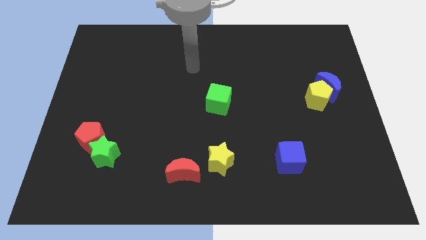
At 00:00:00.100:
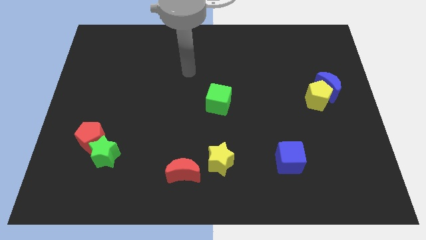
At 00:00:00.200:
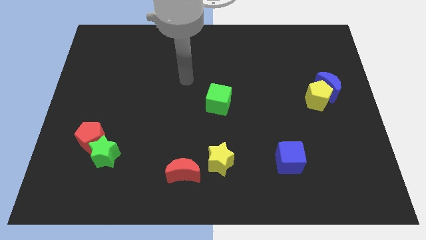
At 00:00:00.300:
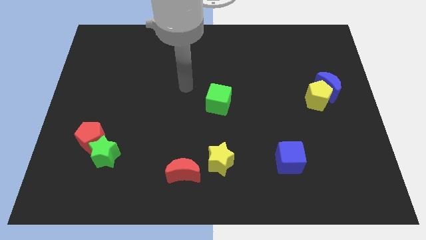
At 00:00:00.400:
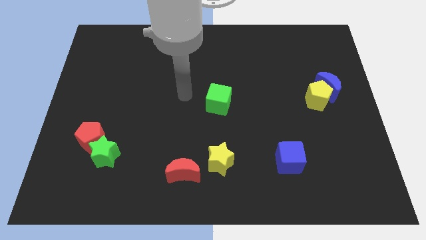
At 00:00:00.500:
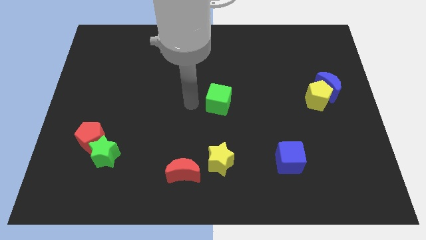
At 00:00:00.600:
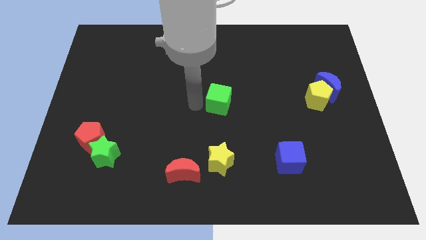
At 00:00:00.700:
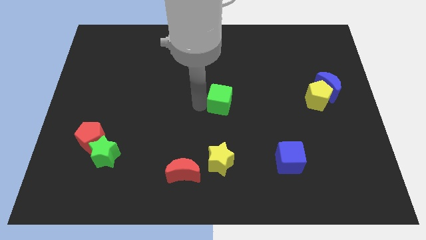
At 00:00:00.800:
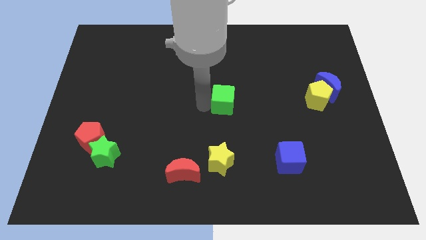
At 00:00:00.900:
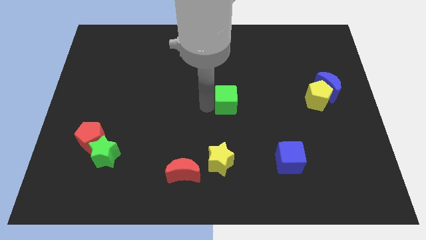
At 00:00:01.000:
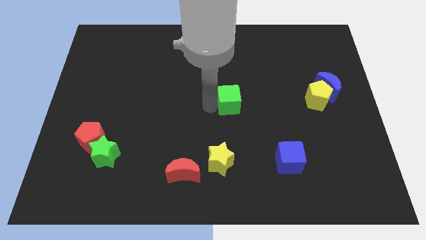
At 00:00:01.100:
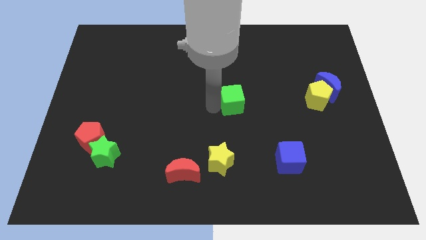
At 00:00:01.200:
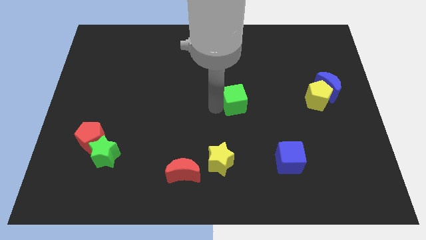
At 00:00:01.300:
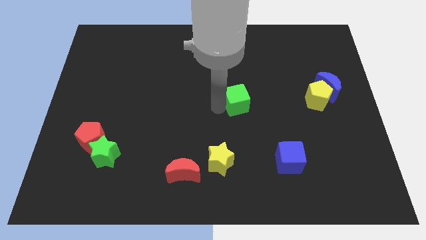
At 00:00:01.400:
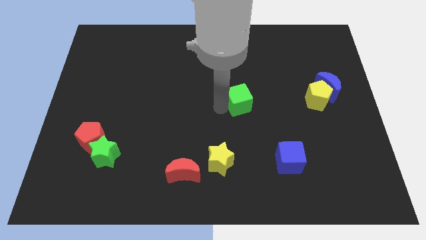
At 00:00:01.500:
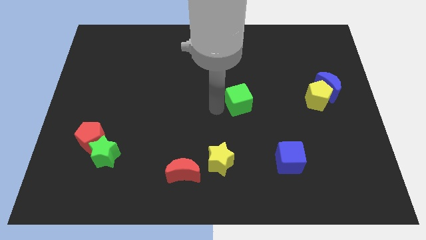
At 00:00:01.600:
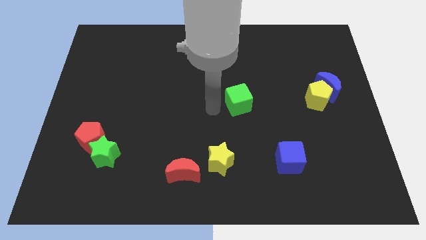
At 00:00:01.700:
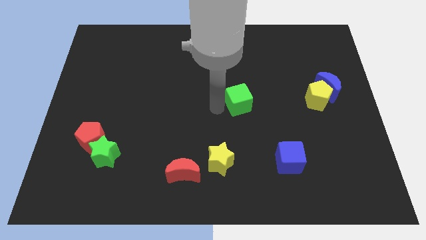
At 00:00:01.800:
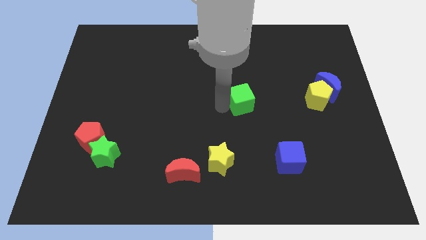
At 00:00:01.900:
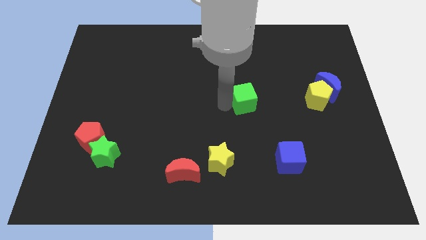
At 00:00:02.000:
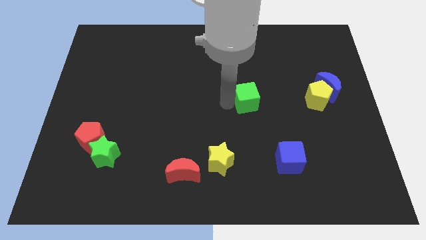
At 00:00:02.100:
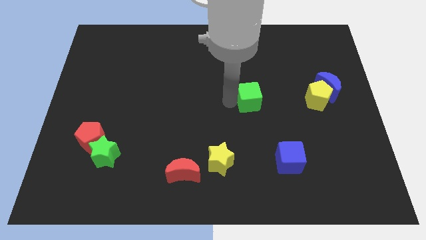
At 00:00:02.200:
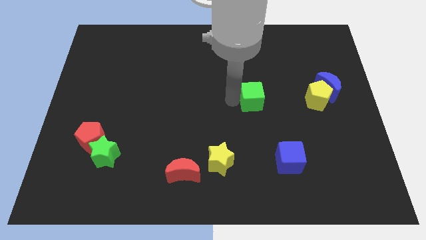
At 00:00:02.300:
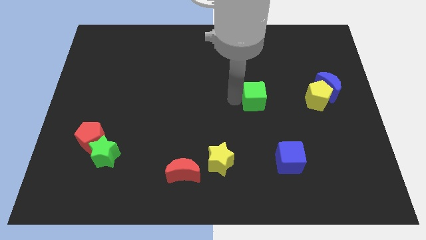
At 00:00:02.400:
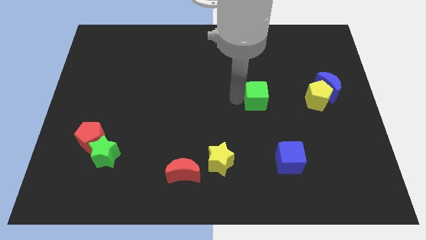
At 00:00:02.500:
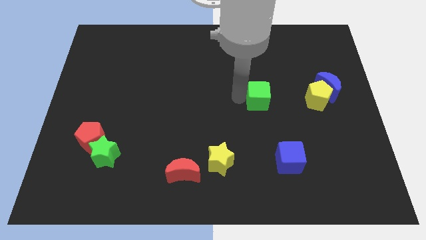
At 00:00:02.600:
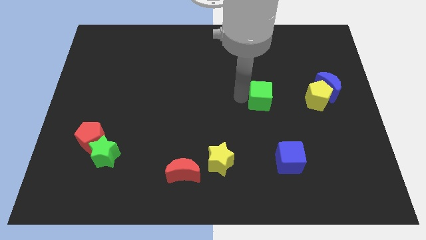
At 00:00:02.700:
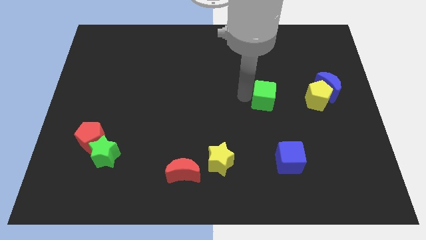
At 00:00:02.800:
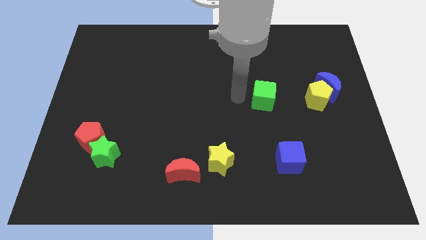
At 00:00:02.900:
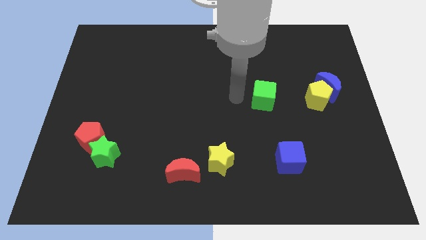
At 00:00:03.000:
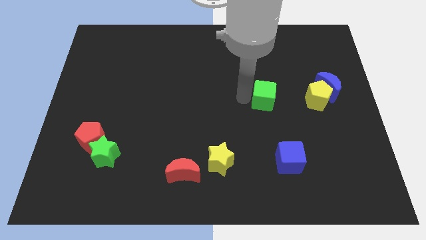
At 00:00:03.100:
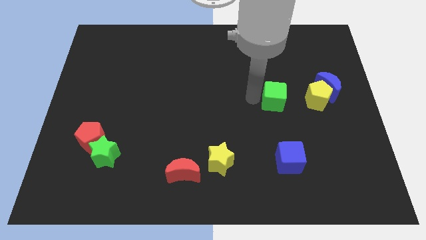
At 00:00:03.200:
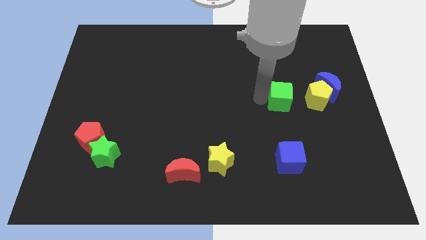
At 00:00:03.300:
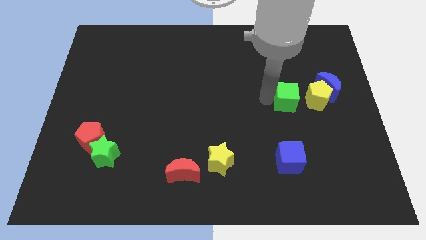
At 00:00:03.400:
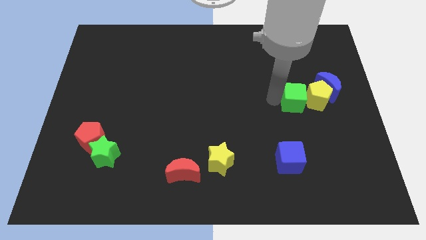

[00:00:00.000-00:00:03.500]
put the green cube close to the yellow pentagon

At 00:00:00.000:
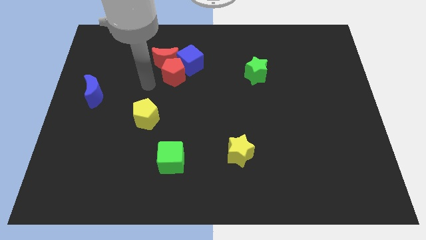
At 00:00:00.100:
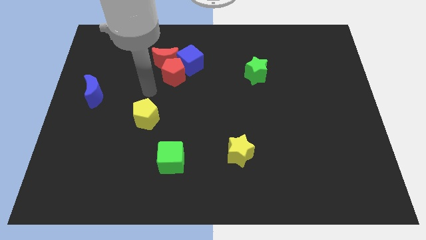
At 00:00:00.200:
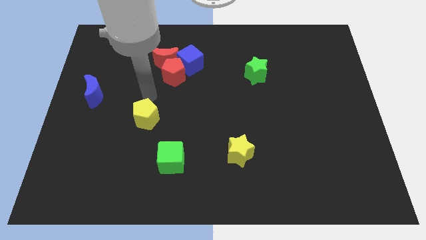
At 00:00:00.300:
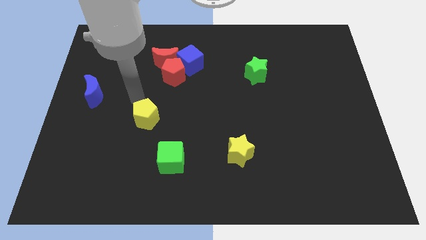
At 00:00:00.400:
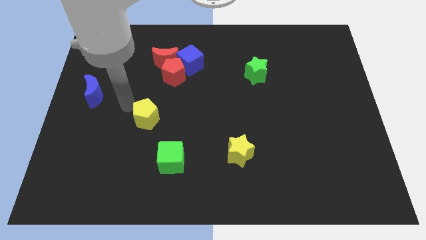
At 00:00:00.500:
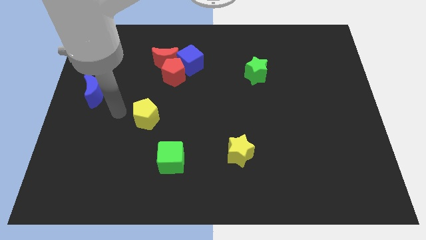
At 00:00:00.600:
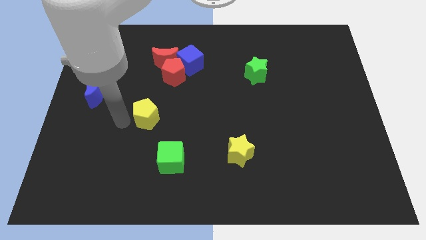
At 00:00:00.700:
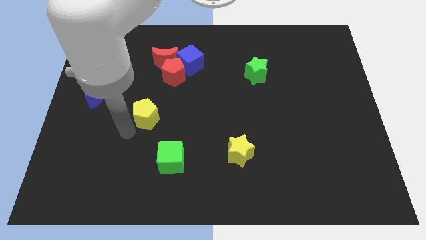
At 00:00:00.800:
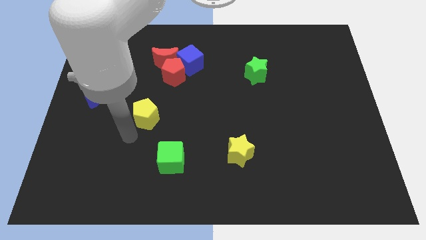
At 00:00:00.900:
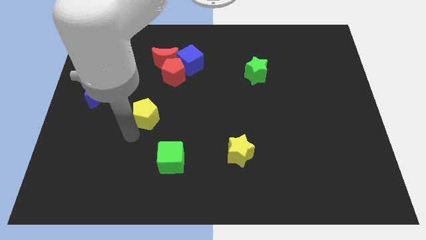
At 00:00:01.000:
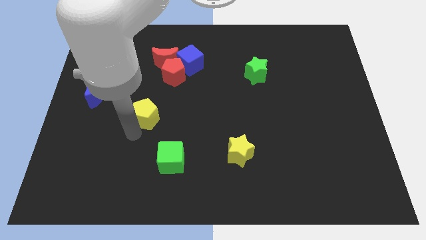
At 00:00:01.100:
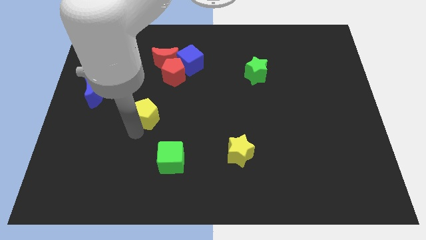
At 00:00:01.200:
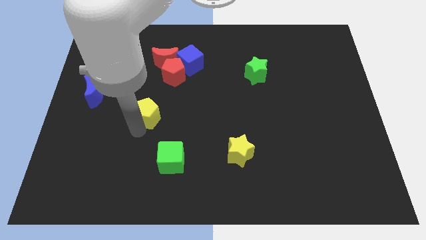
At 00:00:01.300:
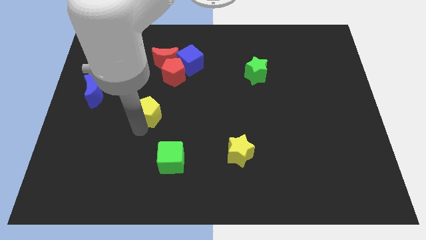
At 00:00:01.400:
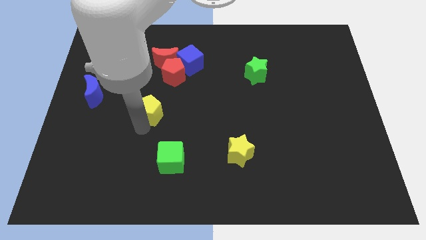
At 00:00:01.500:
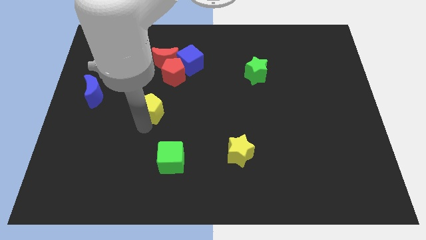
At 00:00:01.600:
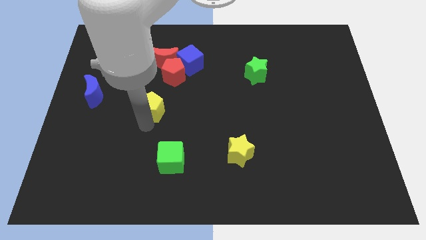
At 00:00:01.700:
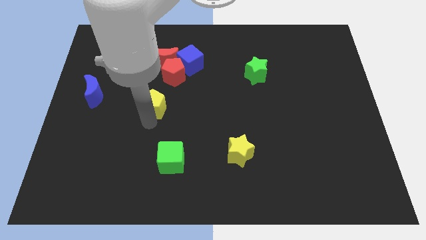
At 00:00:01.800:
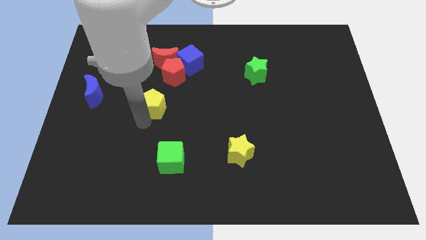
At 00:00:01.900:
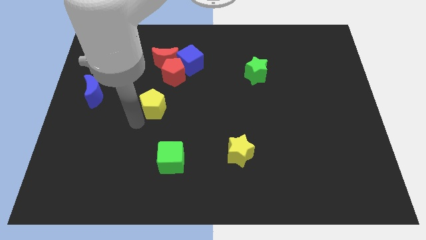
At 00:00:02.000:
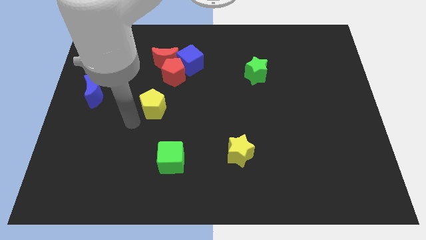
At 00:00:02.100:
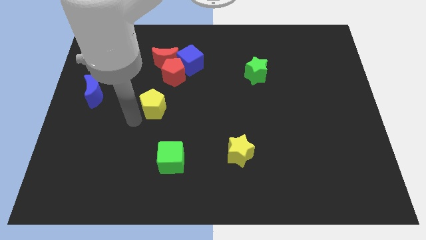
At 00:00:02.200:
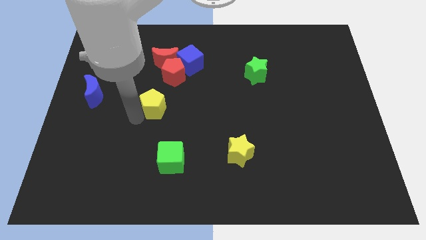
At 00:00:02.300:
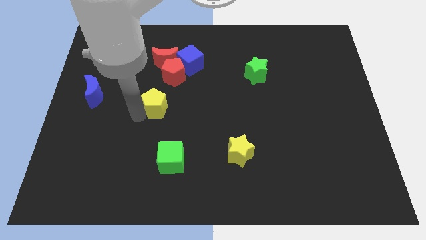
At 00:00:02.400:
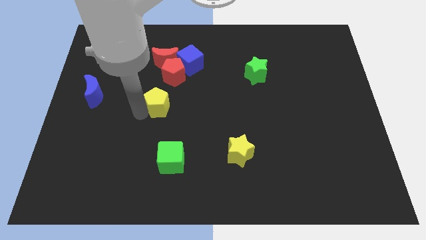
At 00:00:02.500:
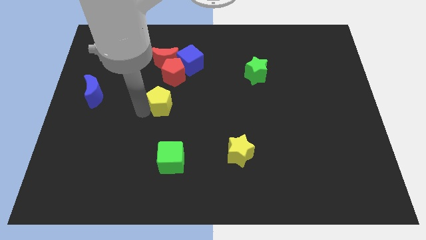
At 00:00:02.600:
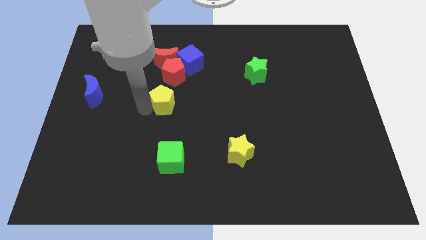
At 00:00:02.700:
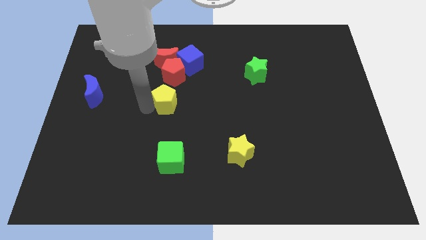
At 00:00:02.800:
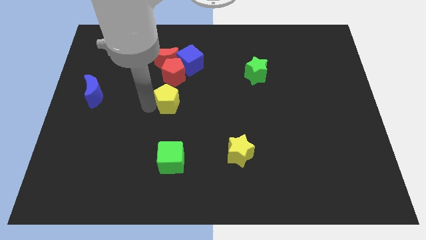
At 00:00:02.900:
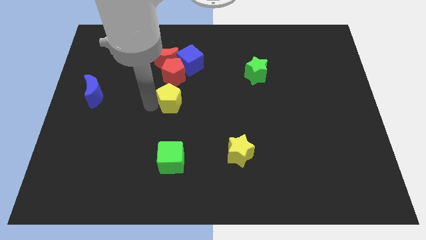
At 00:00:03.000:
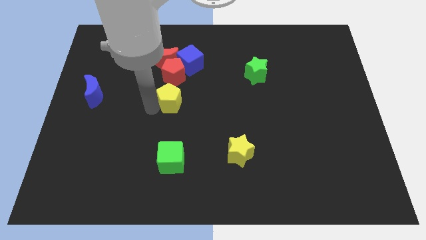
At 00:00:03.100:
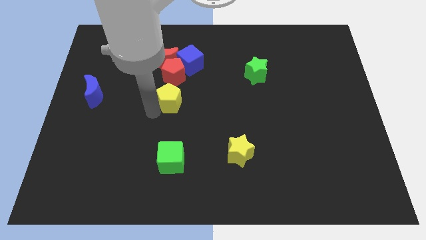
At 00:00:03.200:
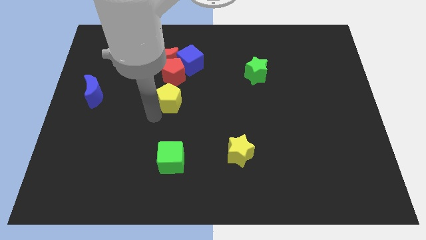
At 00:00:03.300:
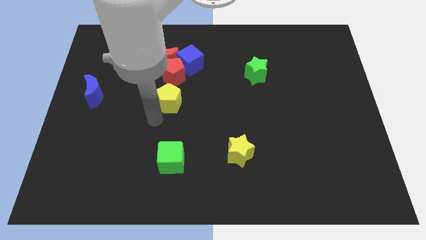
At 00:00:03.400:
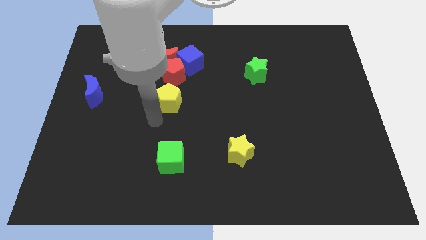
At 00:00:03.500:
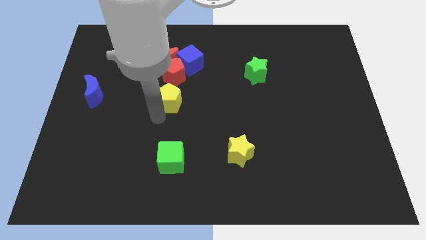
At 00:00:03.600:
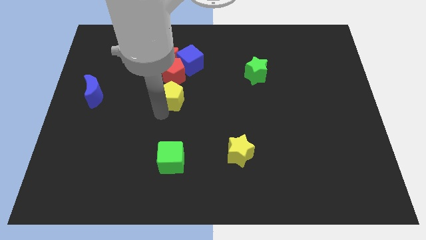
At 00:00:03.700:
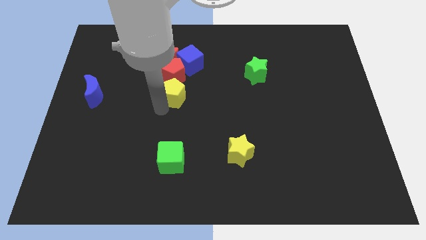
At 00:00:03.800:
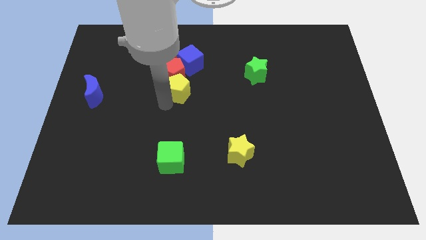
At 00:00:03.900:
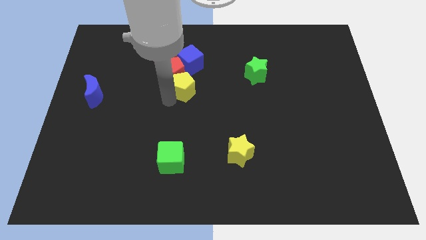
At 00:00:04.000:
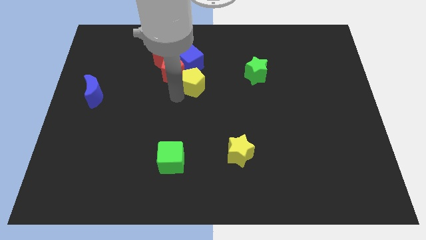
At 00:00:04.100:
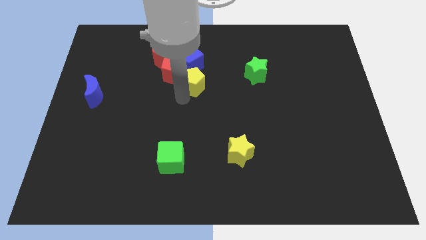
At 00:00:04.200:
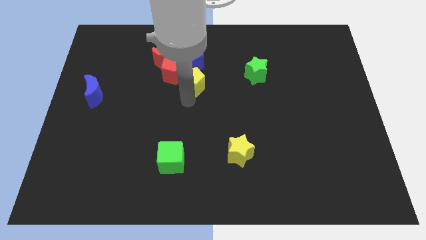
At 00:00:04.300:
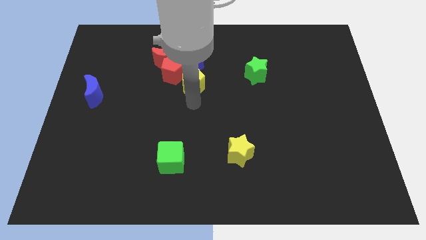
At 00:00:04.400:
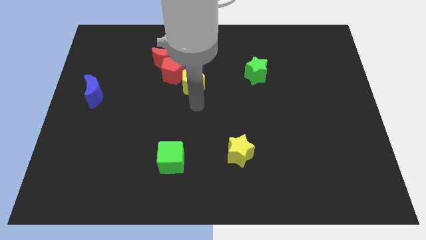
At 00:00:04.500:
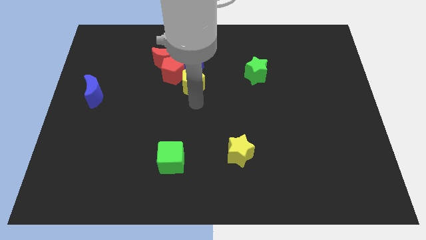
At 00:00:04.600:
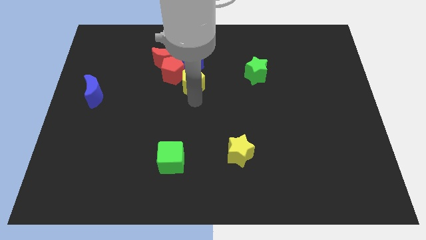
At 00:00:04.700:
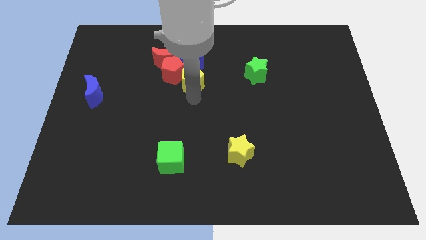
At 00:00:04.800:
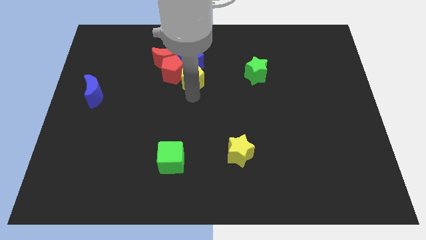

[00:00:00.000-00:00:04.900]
push the yellow pentagon towards the blue cube
